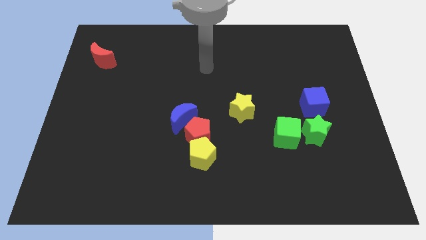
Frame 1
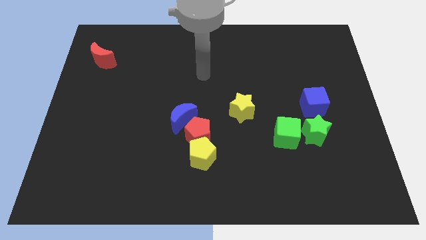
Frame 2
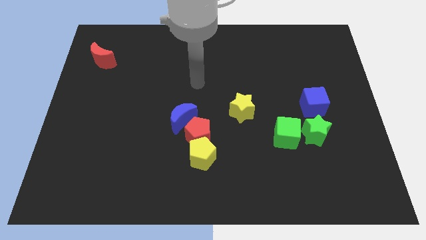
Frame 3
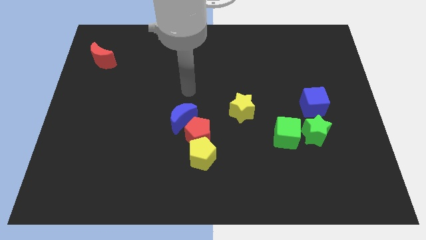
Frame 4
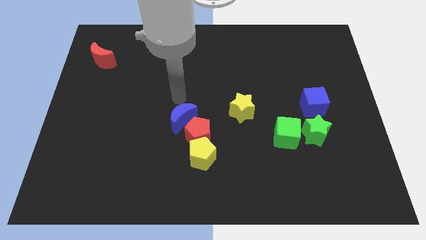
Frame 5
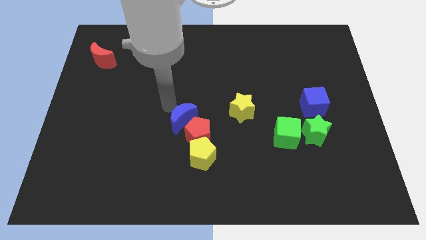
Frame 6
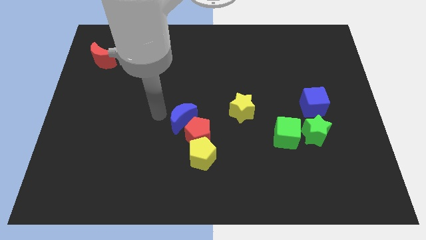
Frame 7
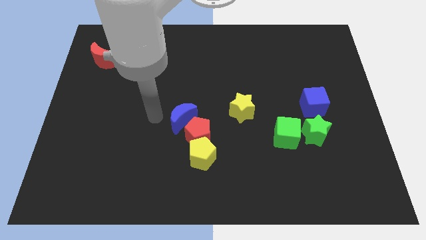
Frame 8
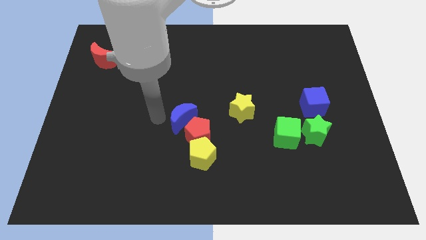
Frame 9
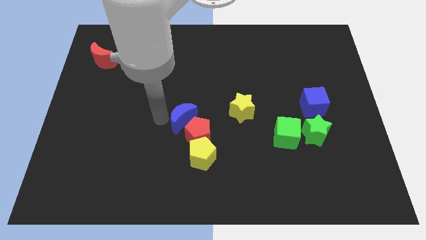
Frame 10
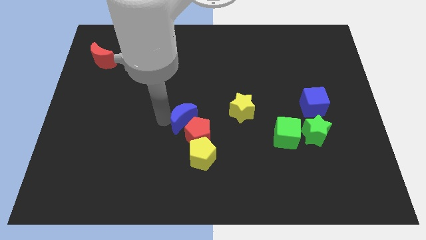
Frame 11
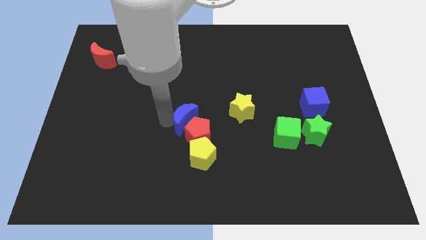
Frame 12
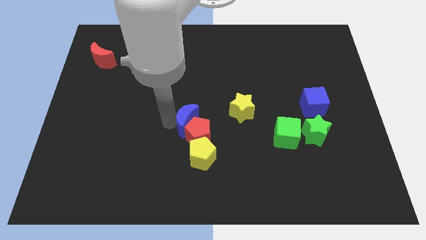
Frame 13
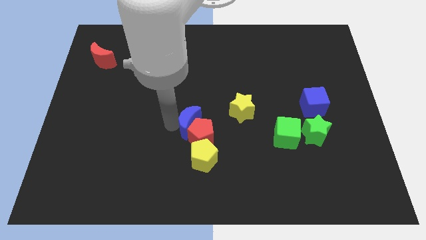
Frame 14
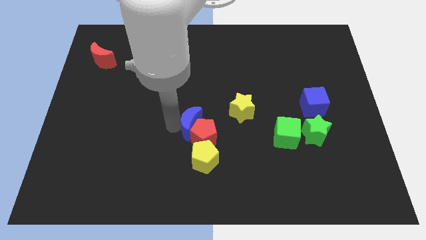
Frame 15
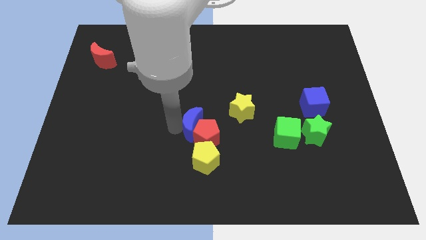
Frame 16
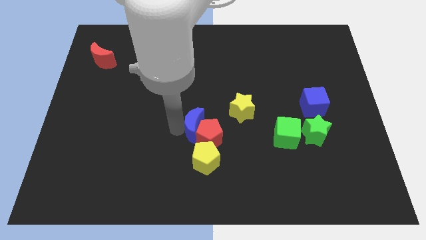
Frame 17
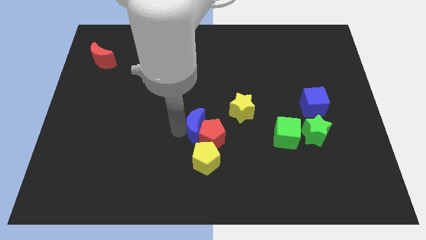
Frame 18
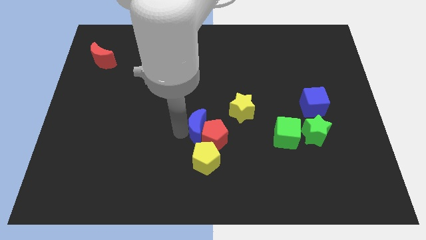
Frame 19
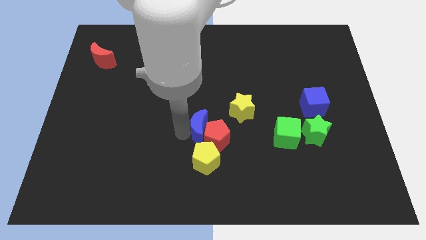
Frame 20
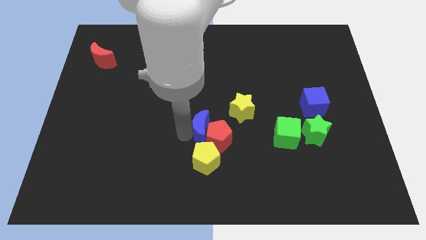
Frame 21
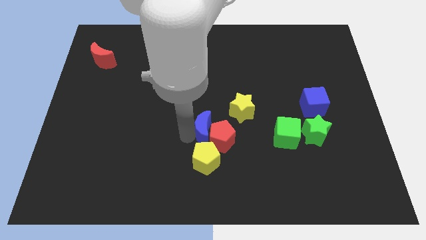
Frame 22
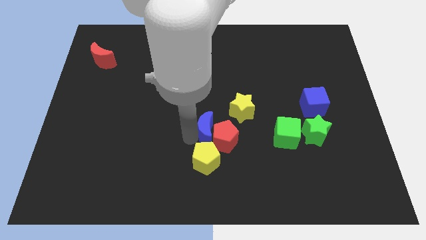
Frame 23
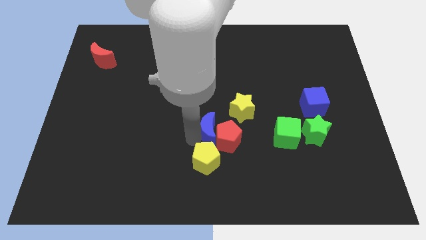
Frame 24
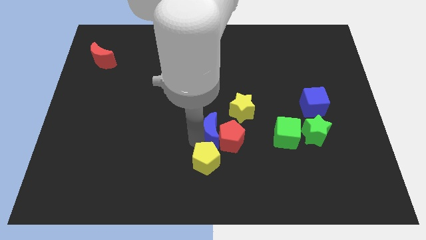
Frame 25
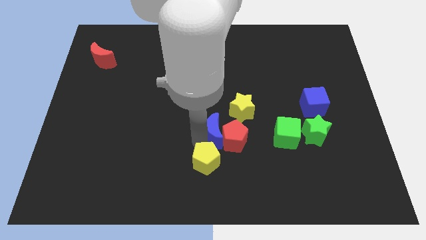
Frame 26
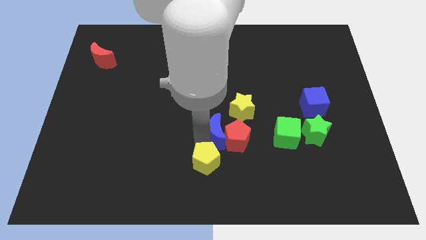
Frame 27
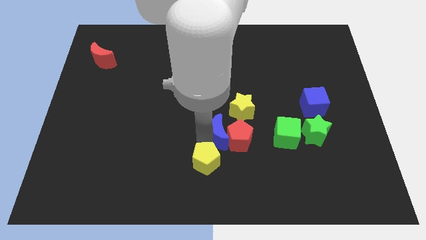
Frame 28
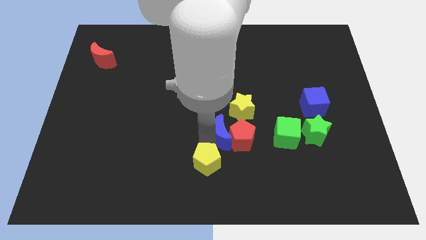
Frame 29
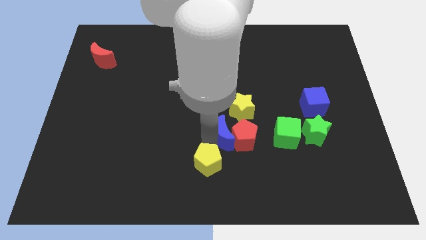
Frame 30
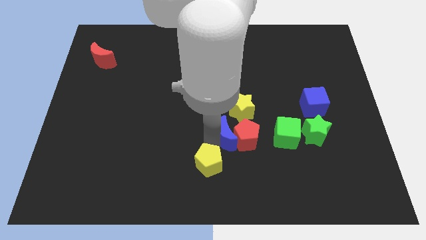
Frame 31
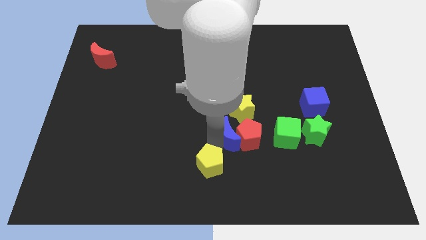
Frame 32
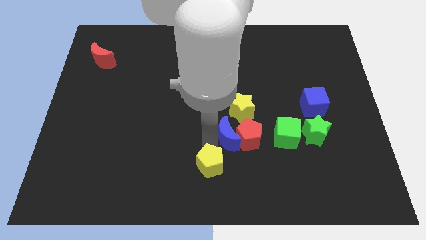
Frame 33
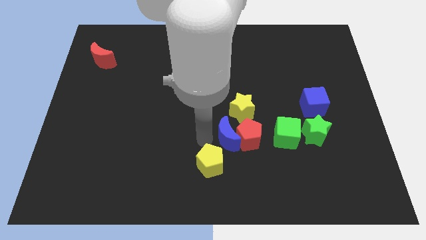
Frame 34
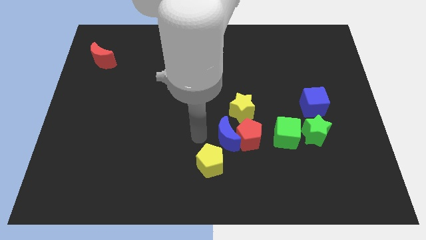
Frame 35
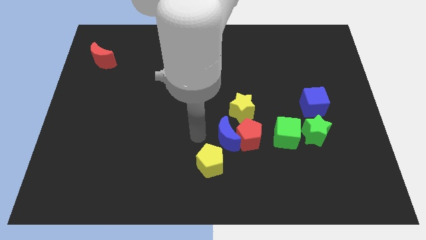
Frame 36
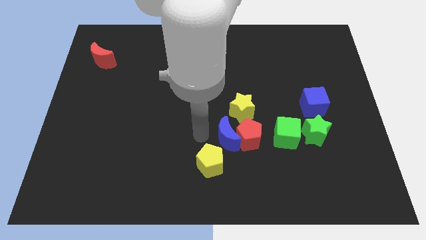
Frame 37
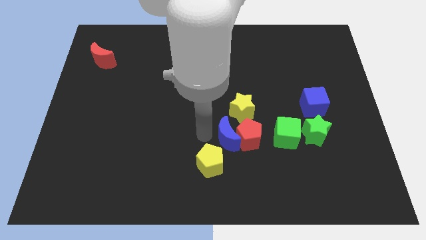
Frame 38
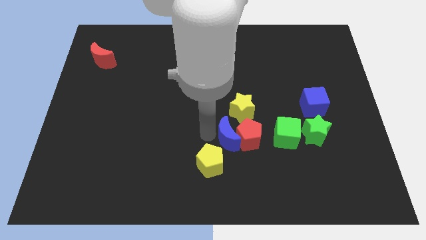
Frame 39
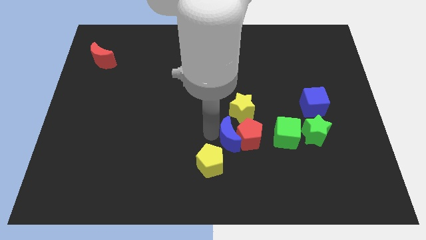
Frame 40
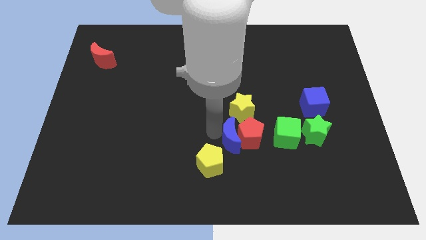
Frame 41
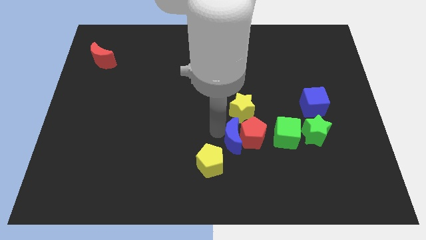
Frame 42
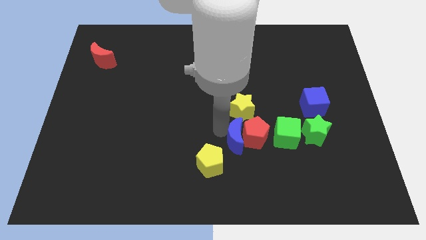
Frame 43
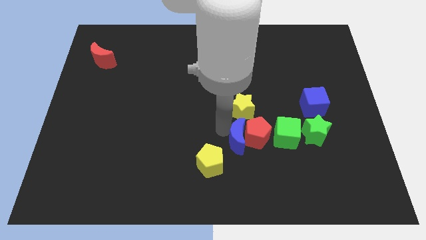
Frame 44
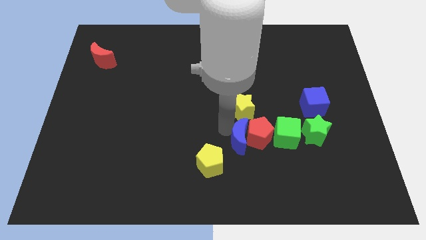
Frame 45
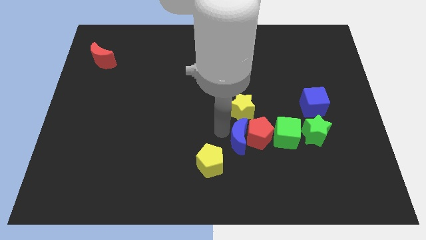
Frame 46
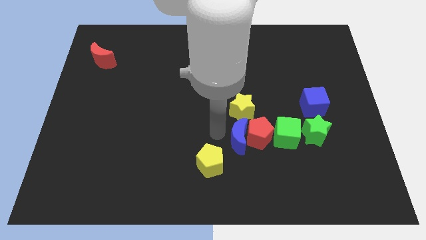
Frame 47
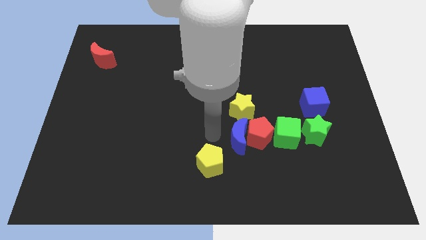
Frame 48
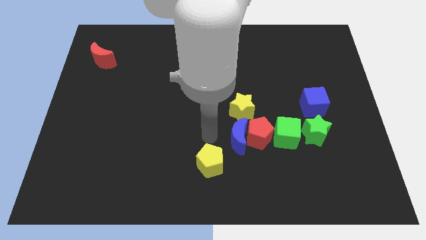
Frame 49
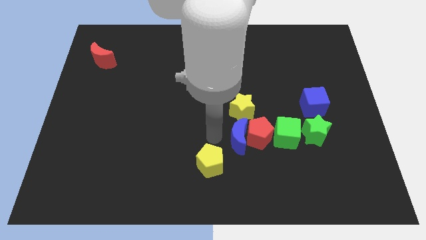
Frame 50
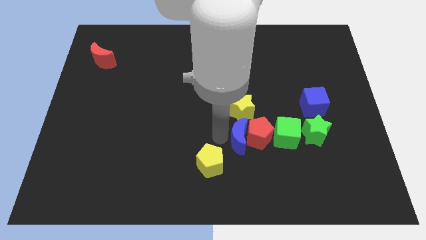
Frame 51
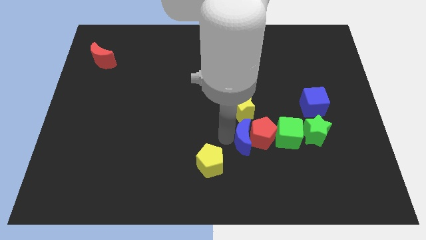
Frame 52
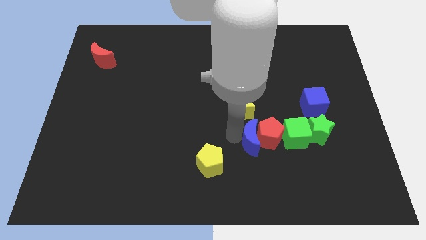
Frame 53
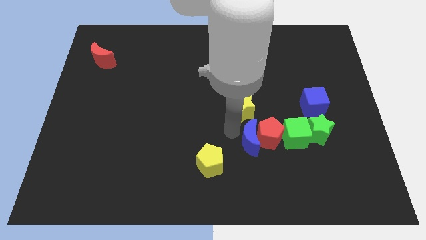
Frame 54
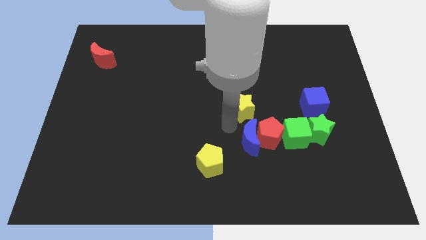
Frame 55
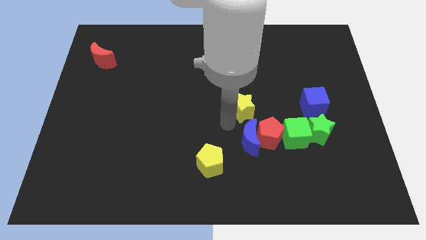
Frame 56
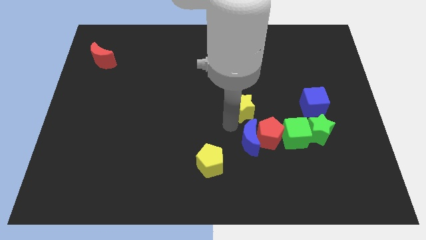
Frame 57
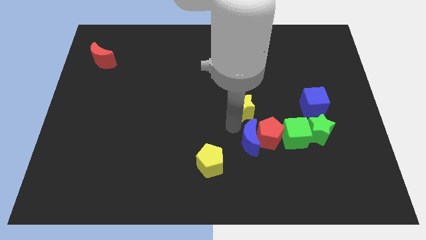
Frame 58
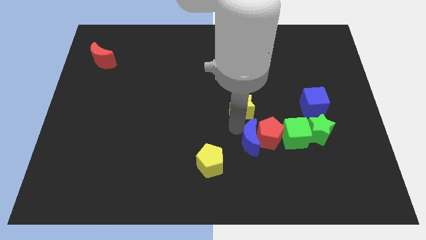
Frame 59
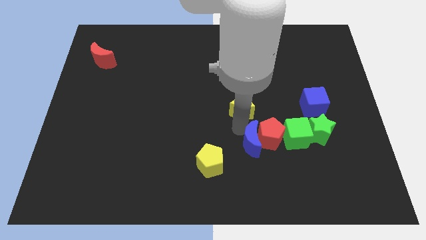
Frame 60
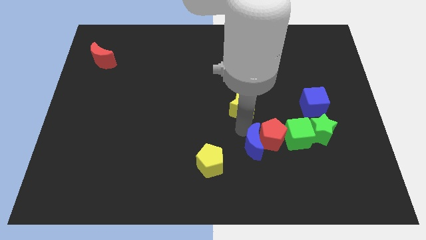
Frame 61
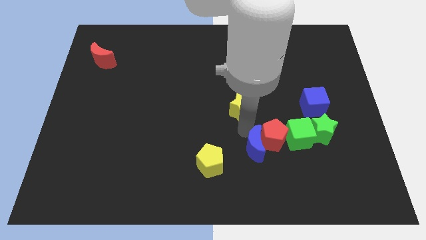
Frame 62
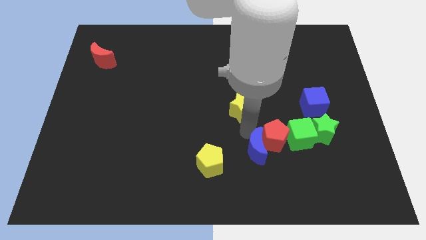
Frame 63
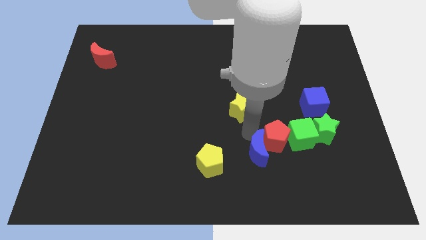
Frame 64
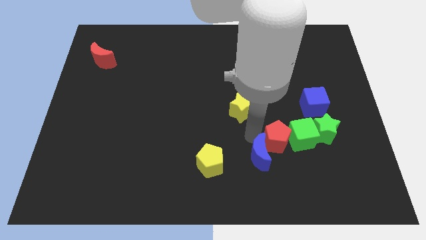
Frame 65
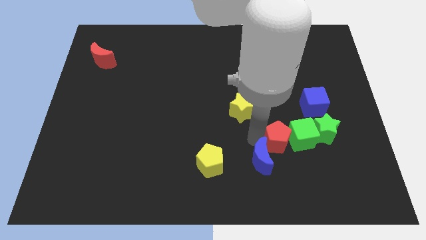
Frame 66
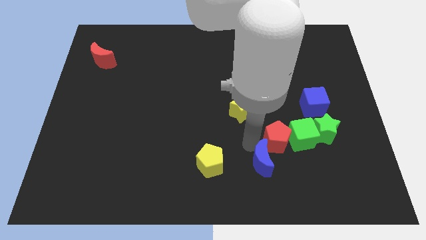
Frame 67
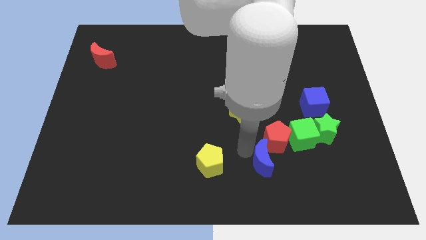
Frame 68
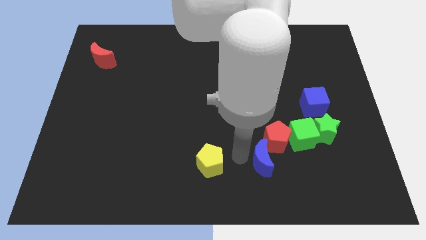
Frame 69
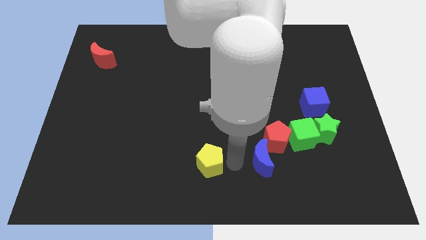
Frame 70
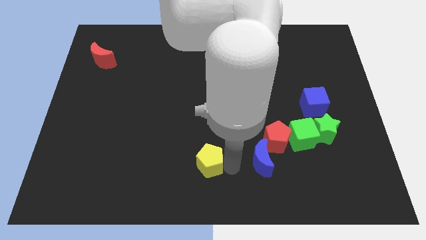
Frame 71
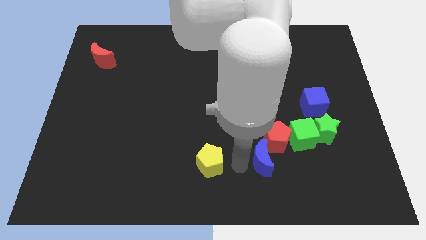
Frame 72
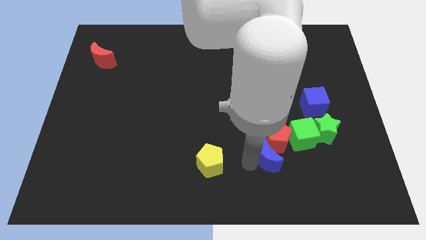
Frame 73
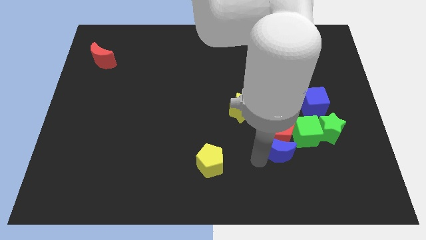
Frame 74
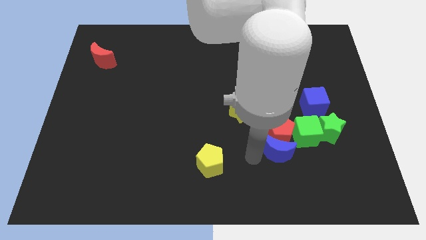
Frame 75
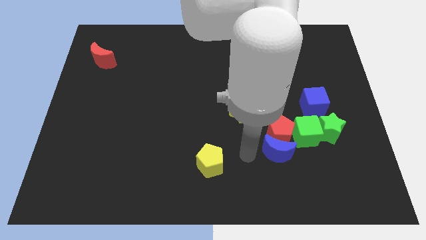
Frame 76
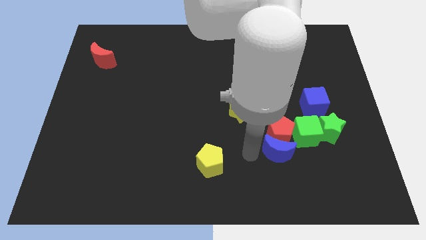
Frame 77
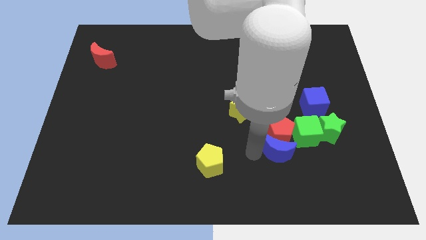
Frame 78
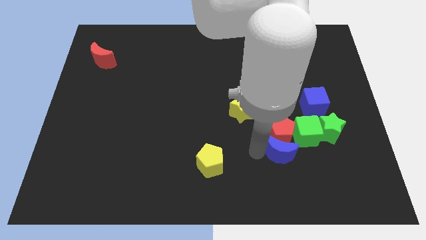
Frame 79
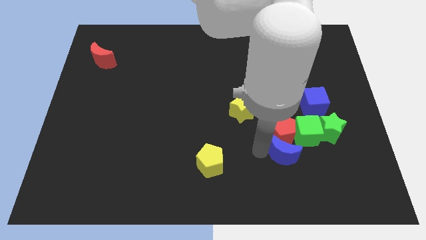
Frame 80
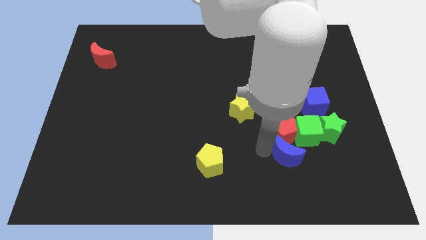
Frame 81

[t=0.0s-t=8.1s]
put the blue moon to the bottom left of the green star
